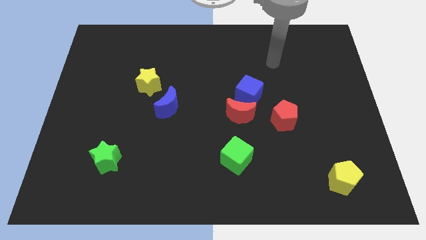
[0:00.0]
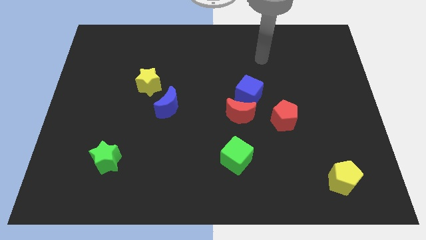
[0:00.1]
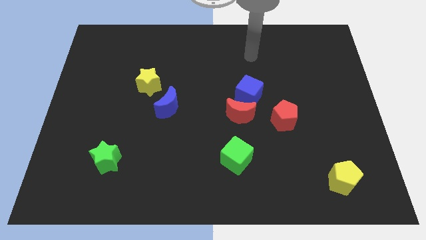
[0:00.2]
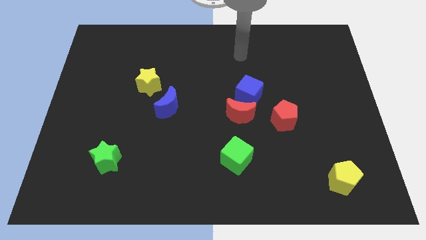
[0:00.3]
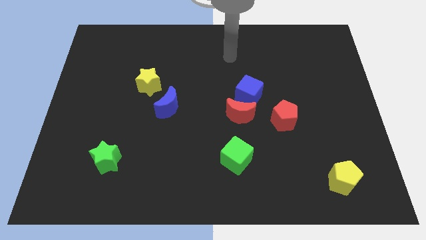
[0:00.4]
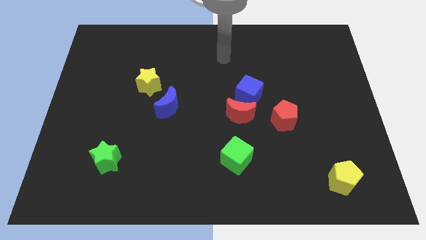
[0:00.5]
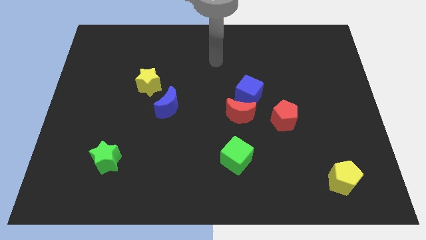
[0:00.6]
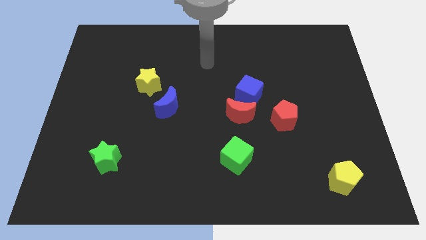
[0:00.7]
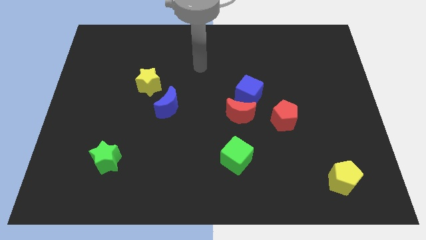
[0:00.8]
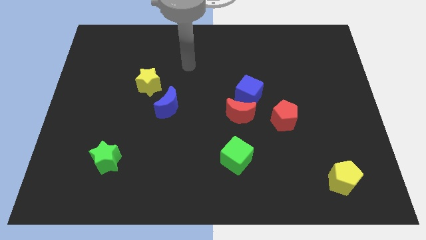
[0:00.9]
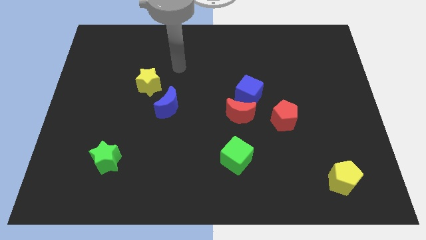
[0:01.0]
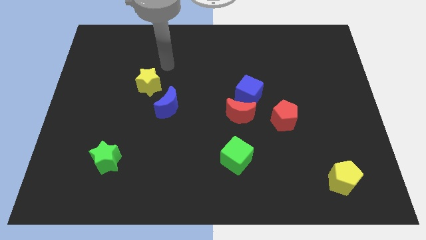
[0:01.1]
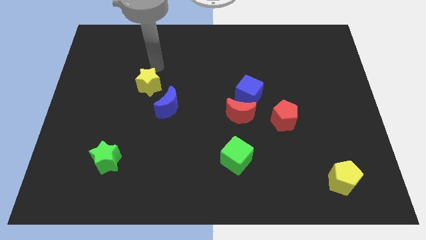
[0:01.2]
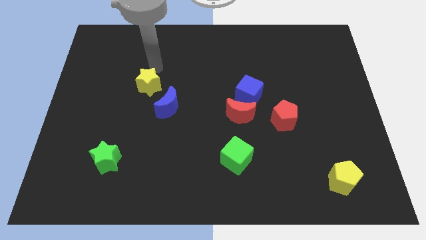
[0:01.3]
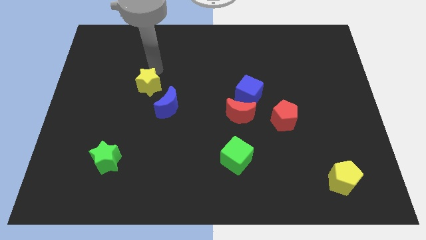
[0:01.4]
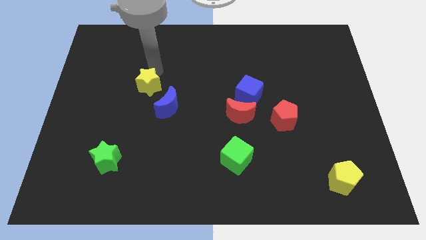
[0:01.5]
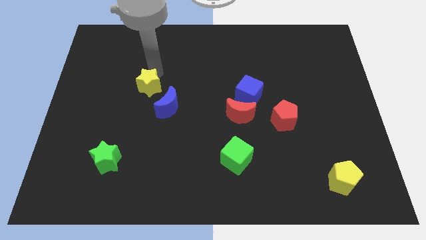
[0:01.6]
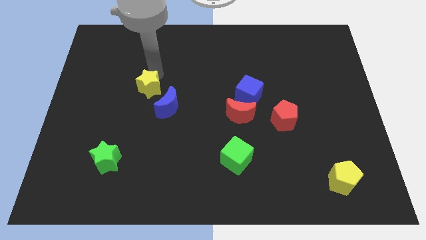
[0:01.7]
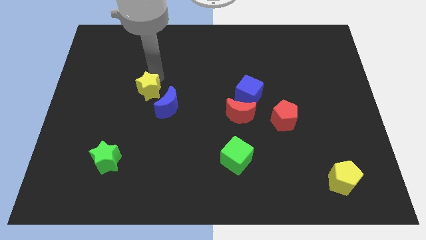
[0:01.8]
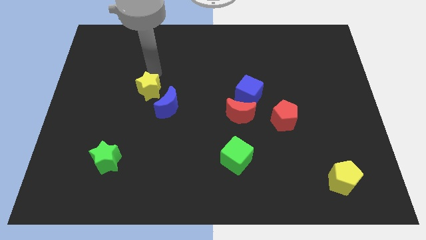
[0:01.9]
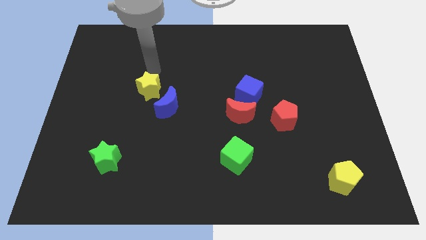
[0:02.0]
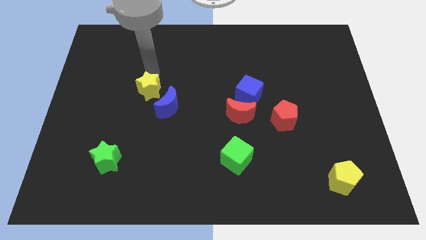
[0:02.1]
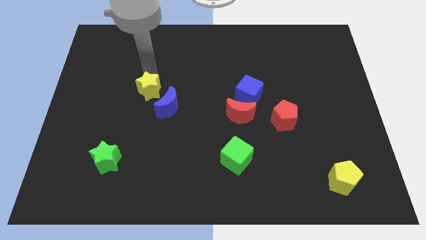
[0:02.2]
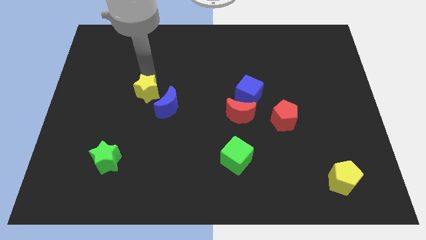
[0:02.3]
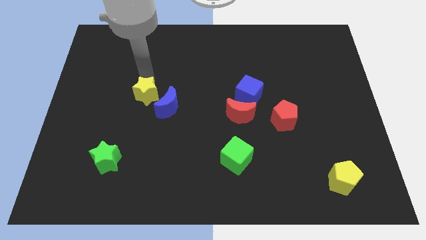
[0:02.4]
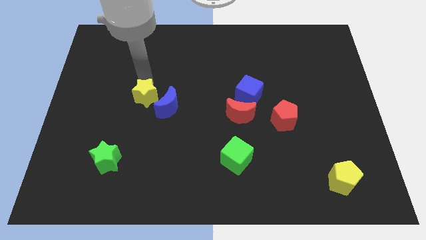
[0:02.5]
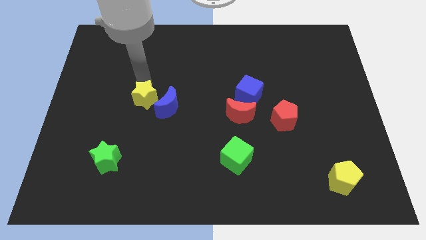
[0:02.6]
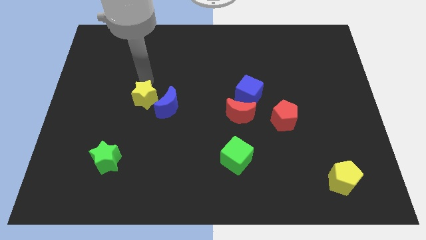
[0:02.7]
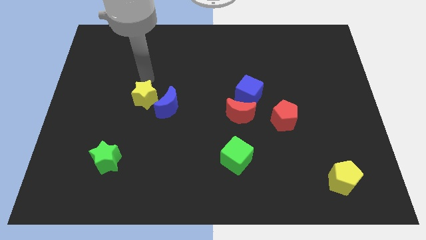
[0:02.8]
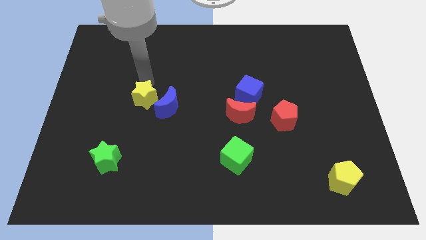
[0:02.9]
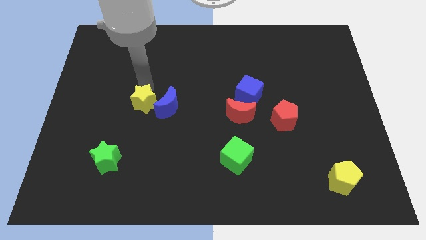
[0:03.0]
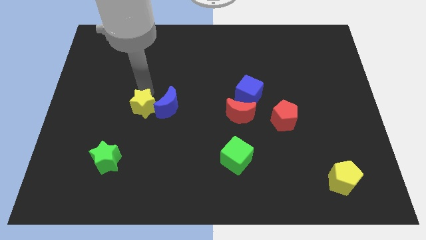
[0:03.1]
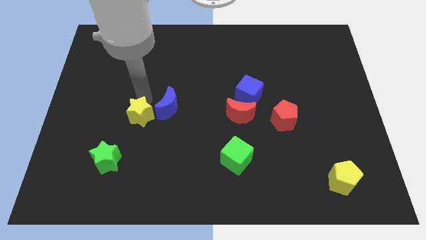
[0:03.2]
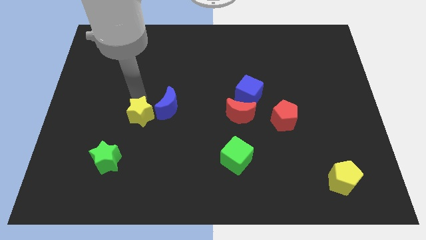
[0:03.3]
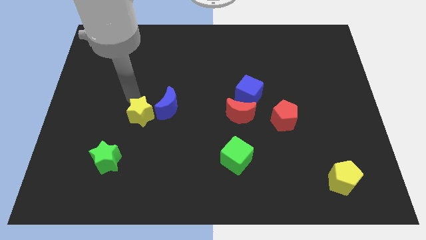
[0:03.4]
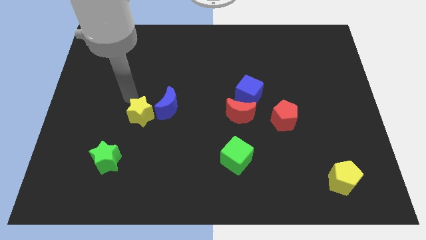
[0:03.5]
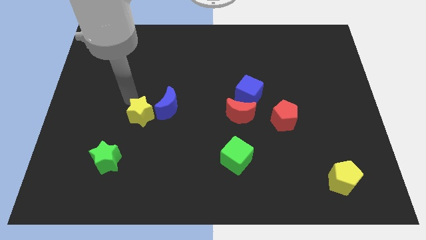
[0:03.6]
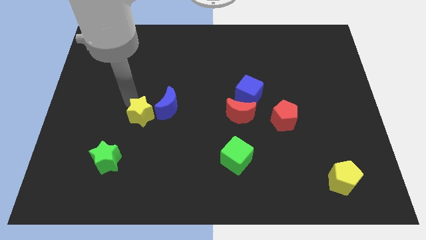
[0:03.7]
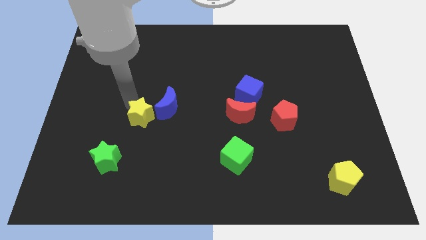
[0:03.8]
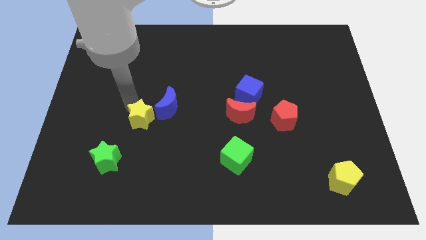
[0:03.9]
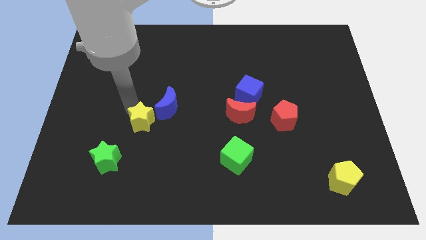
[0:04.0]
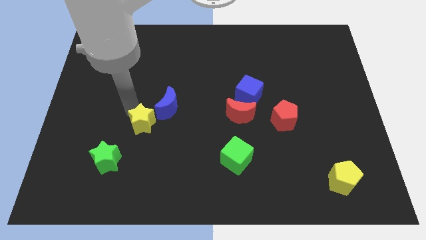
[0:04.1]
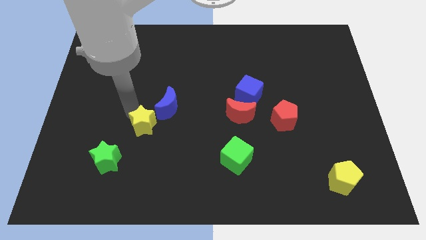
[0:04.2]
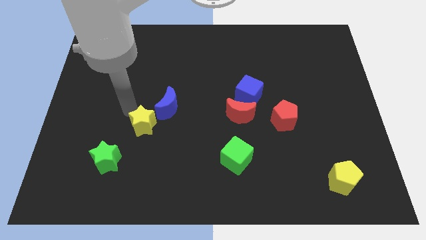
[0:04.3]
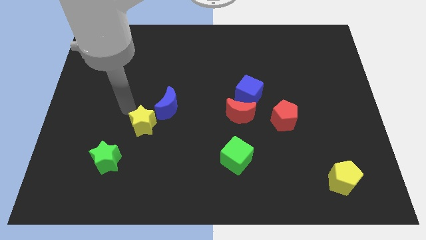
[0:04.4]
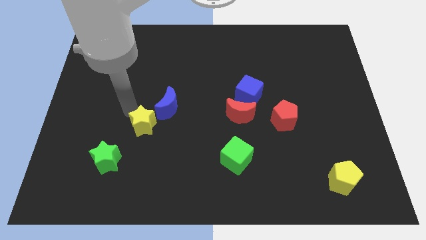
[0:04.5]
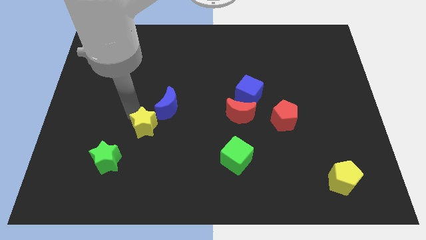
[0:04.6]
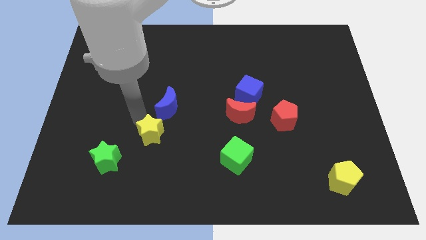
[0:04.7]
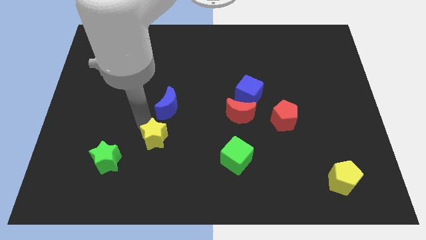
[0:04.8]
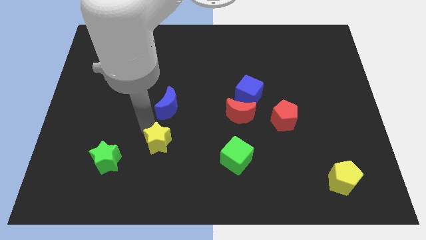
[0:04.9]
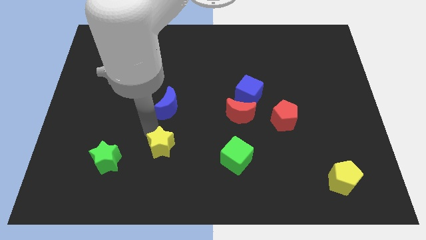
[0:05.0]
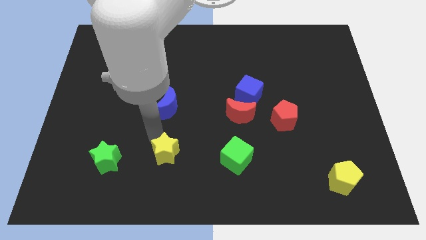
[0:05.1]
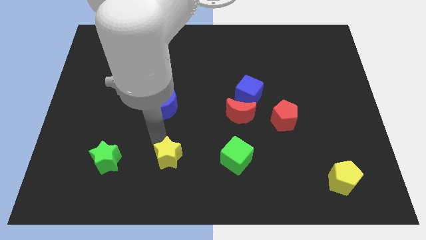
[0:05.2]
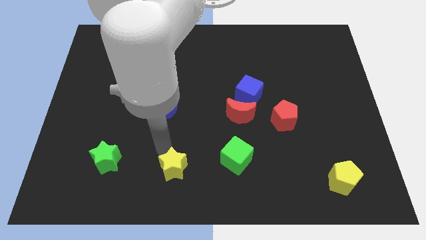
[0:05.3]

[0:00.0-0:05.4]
slide the yellow star to the bottom side

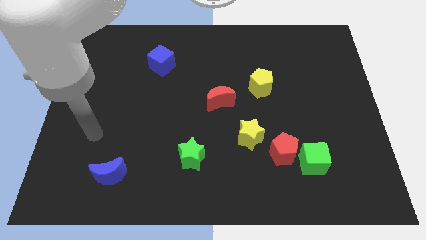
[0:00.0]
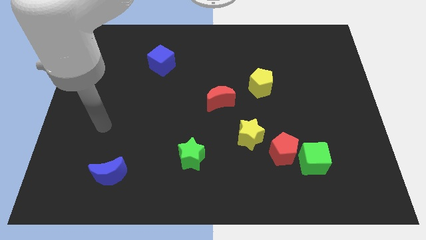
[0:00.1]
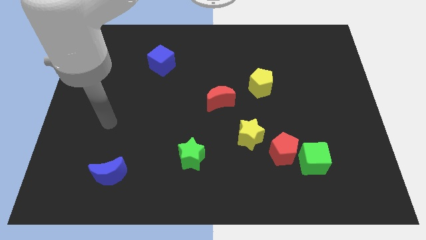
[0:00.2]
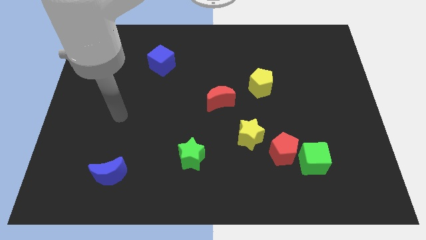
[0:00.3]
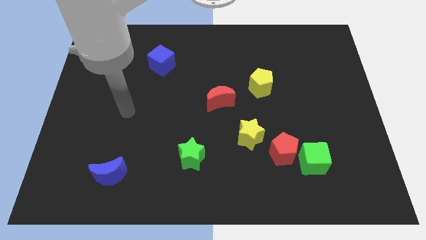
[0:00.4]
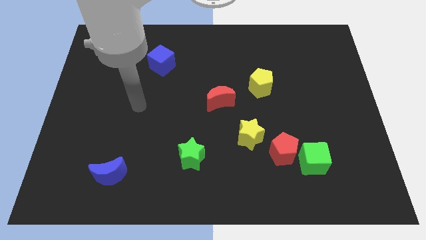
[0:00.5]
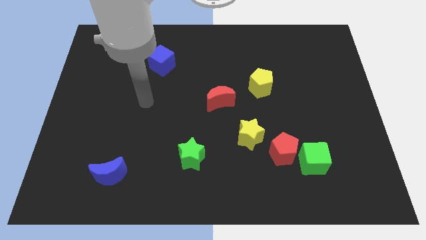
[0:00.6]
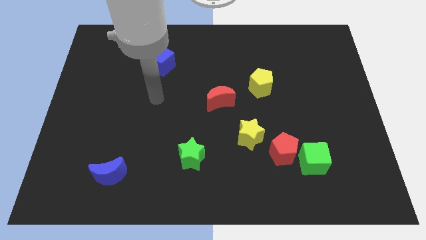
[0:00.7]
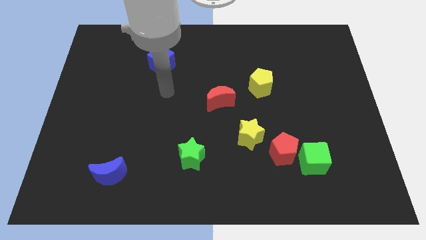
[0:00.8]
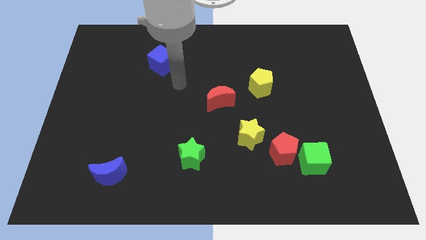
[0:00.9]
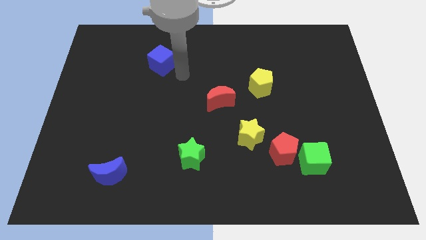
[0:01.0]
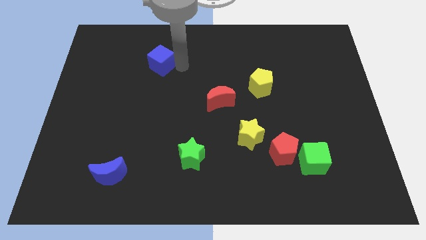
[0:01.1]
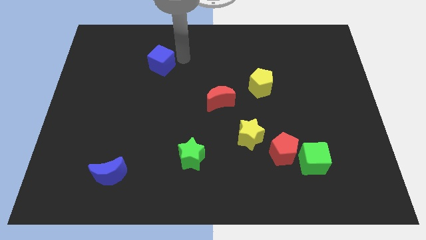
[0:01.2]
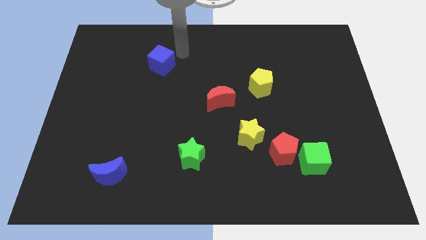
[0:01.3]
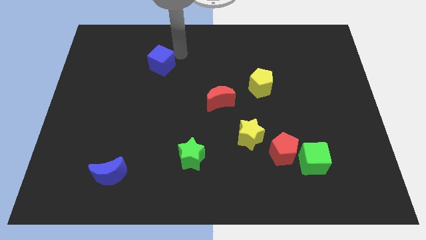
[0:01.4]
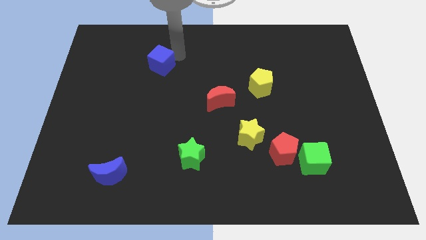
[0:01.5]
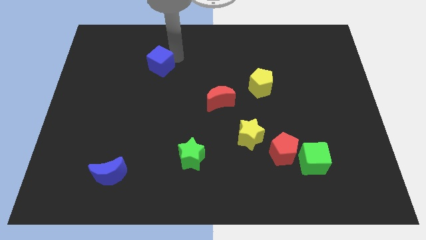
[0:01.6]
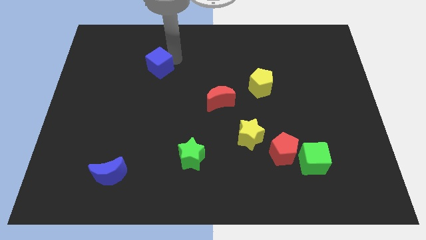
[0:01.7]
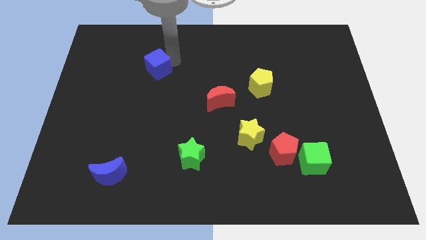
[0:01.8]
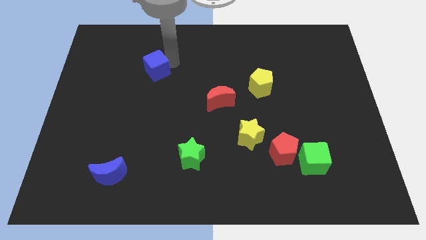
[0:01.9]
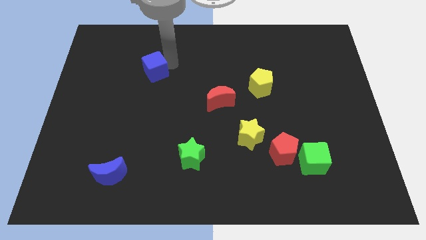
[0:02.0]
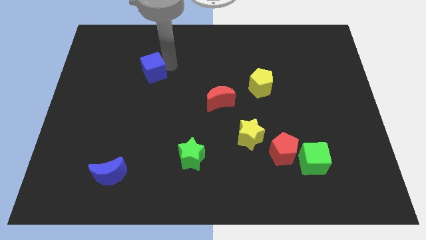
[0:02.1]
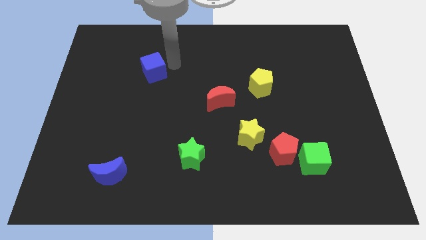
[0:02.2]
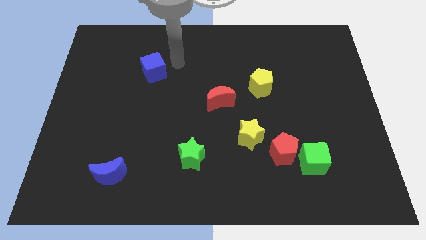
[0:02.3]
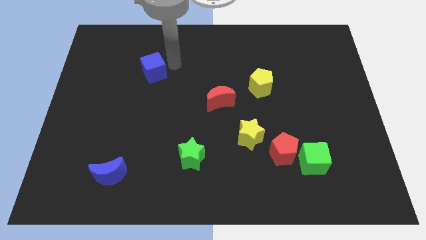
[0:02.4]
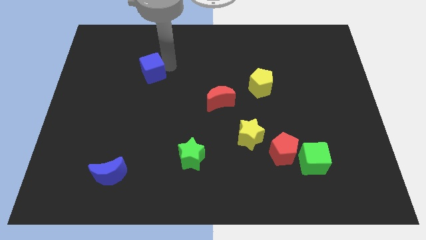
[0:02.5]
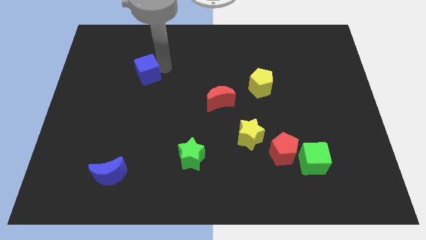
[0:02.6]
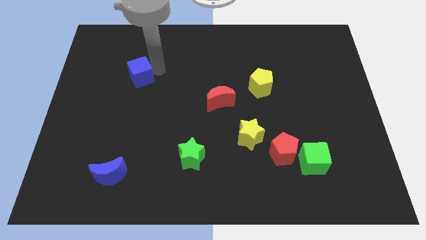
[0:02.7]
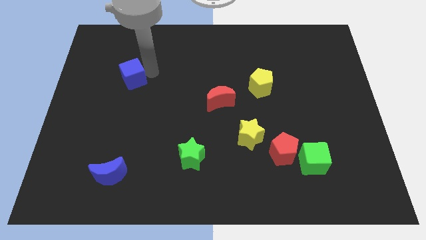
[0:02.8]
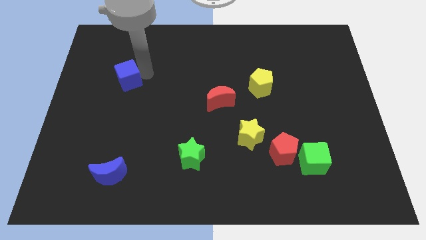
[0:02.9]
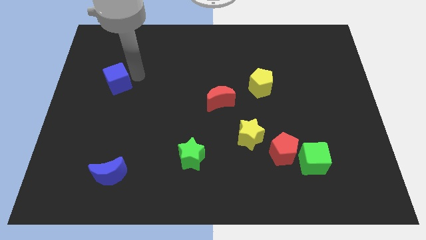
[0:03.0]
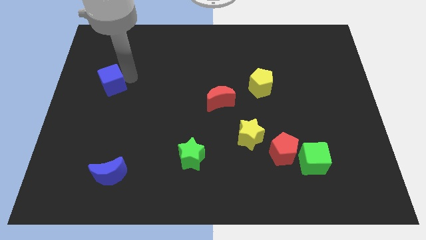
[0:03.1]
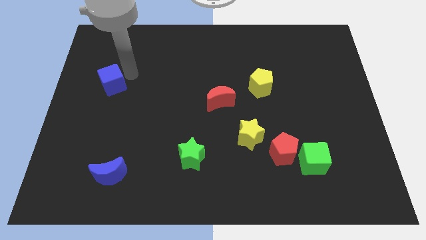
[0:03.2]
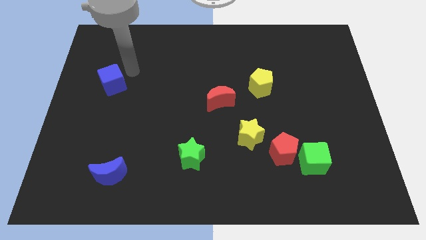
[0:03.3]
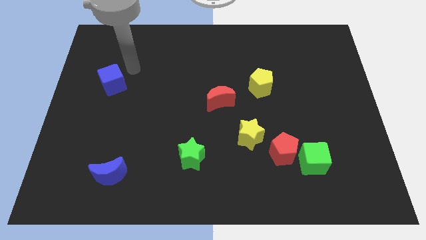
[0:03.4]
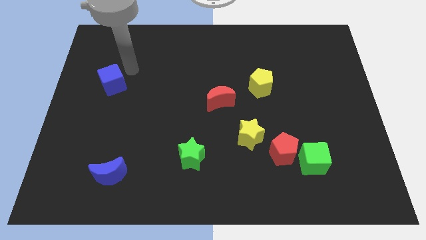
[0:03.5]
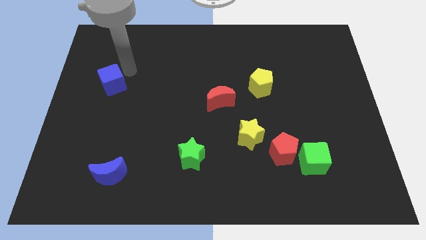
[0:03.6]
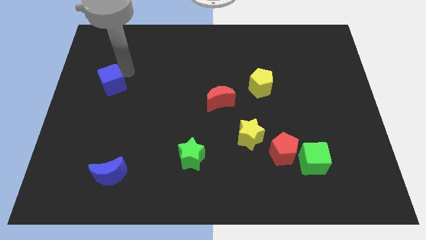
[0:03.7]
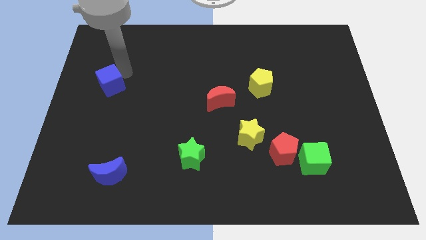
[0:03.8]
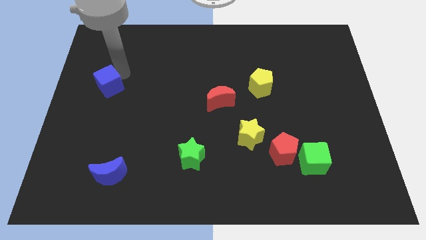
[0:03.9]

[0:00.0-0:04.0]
push the blue cube to the center left
